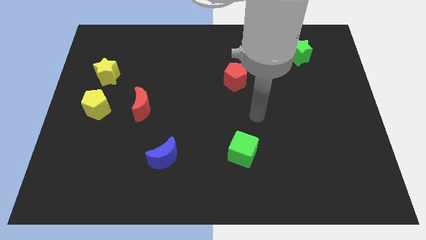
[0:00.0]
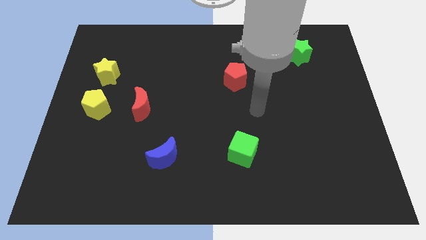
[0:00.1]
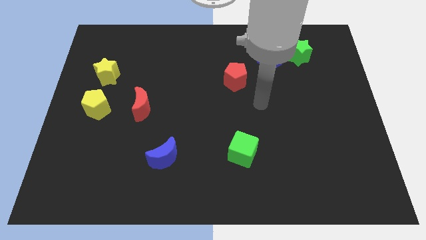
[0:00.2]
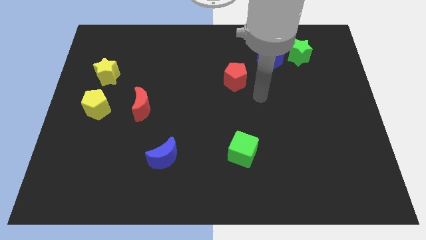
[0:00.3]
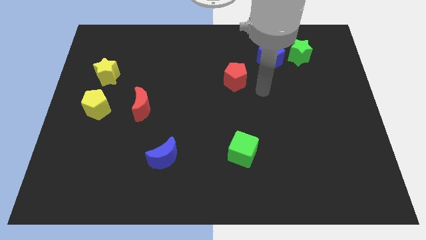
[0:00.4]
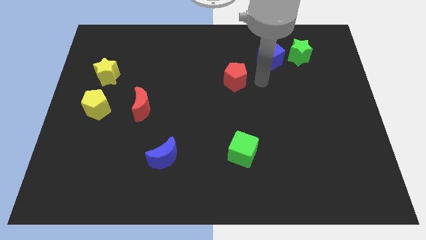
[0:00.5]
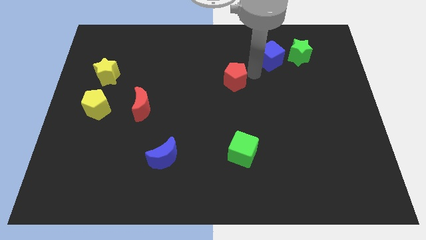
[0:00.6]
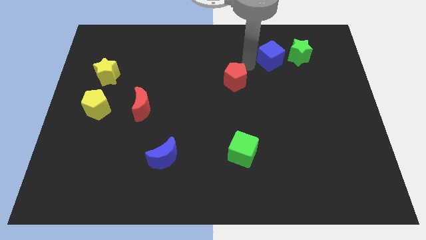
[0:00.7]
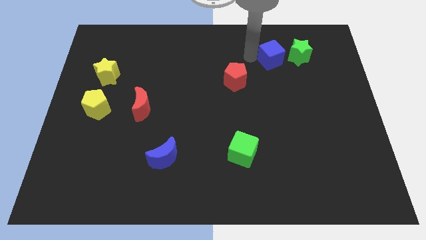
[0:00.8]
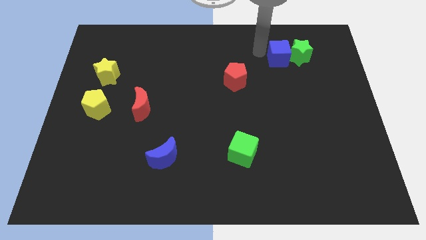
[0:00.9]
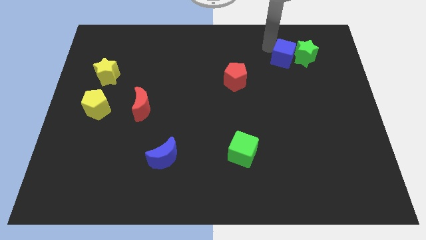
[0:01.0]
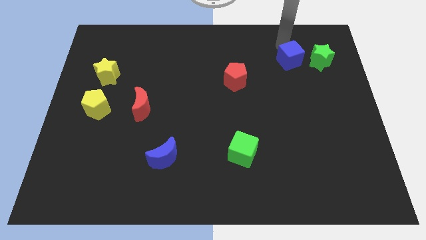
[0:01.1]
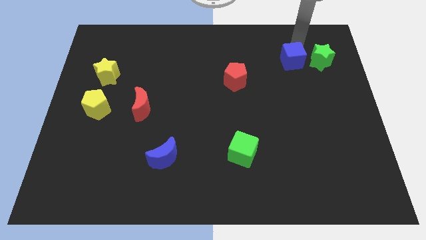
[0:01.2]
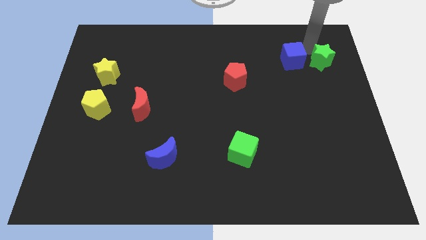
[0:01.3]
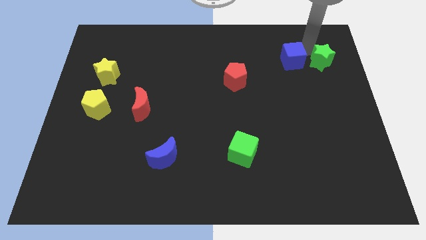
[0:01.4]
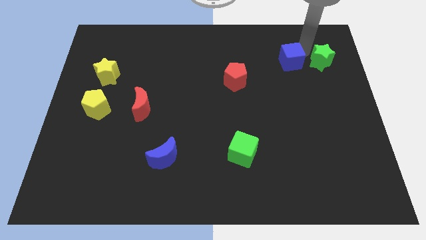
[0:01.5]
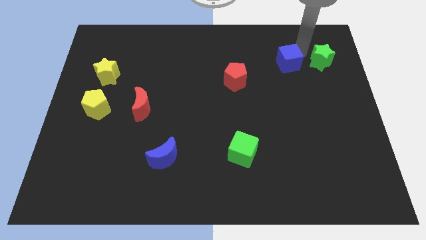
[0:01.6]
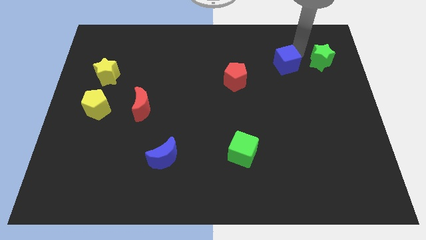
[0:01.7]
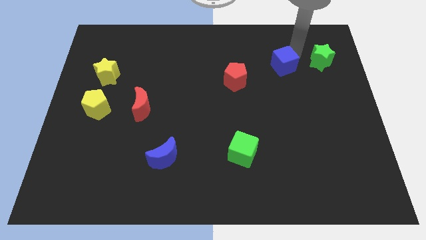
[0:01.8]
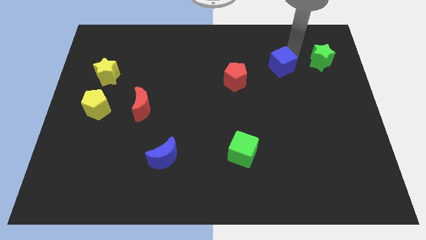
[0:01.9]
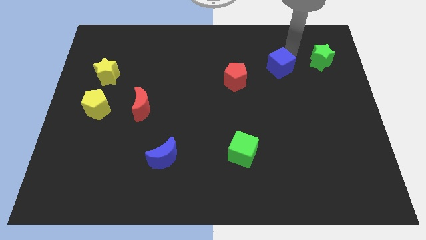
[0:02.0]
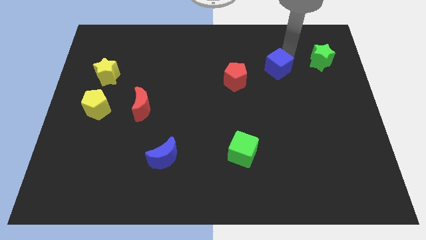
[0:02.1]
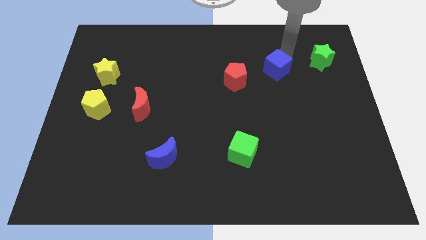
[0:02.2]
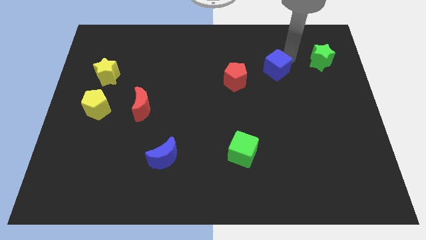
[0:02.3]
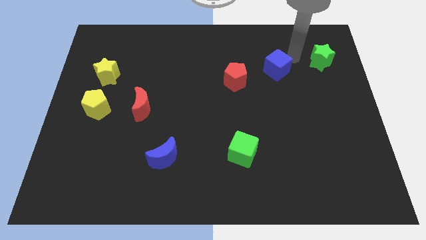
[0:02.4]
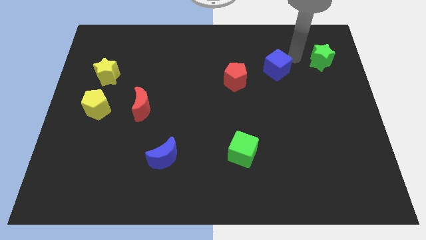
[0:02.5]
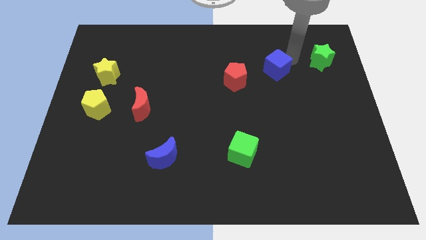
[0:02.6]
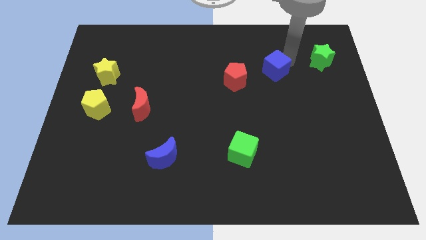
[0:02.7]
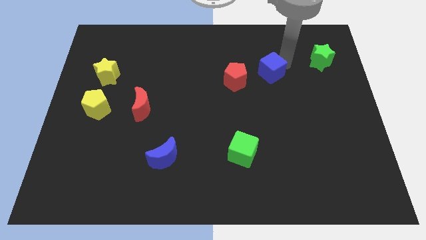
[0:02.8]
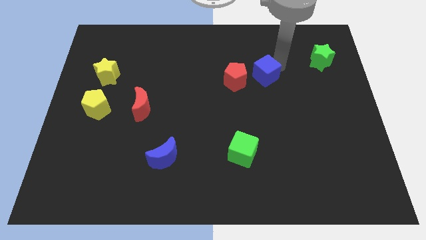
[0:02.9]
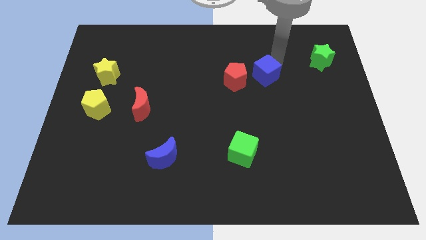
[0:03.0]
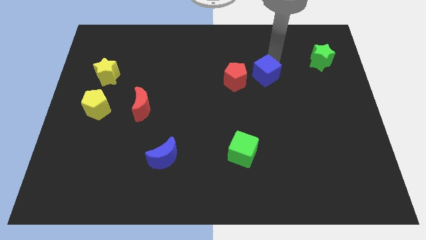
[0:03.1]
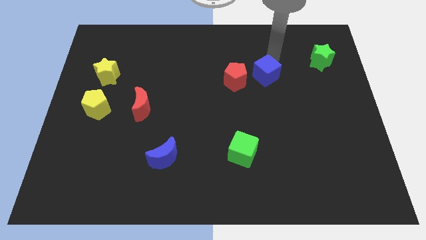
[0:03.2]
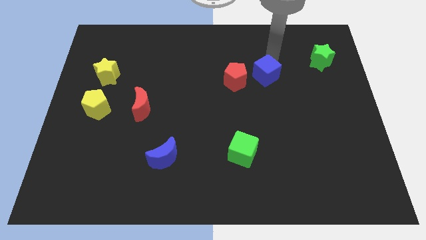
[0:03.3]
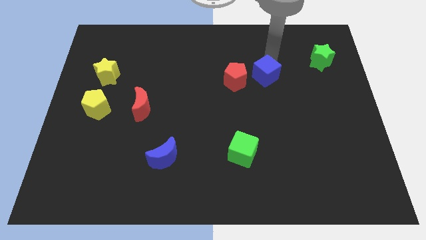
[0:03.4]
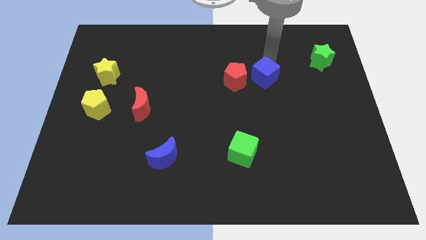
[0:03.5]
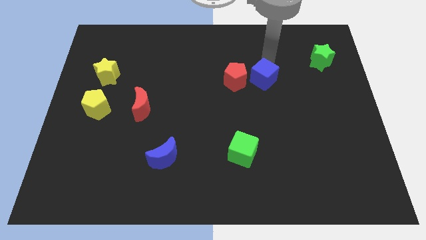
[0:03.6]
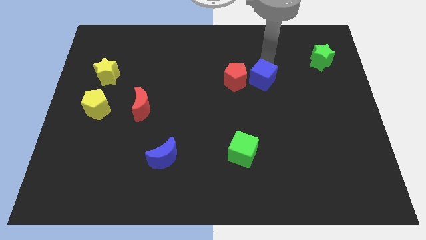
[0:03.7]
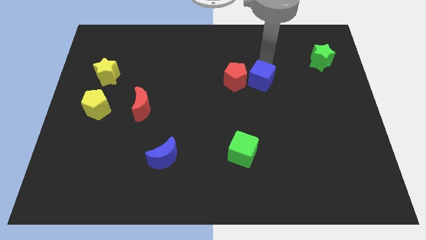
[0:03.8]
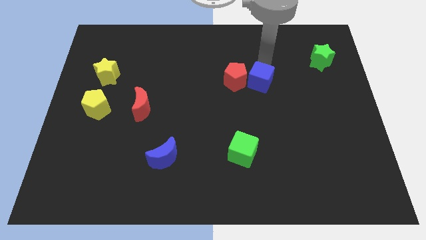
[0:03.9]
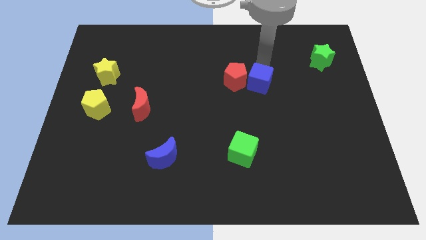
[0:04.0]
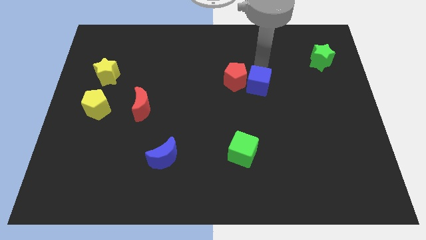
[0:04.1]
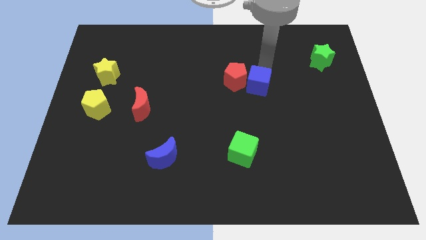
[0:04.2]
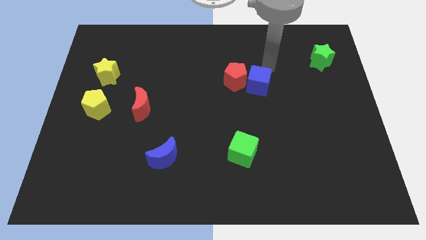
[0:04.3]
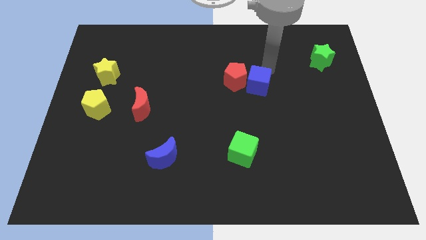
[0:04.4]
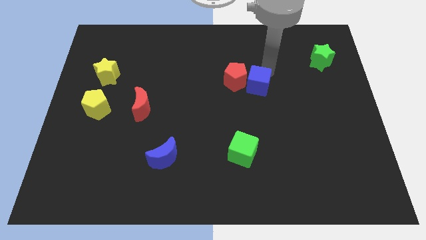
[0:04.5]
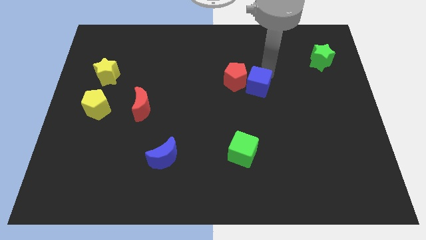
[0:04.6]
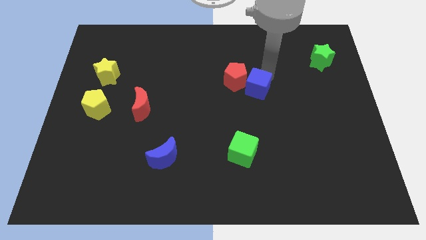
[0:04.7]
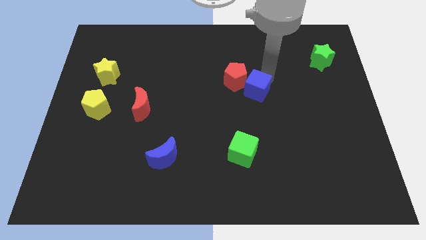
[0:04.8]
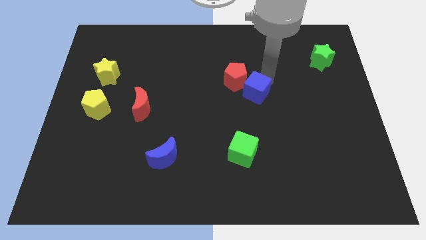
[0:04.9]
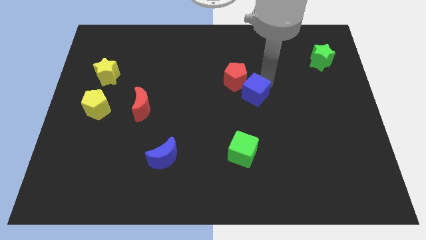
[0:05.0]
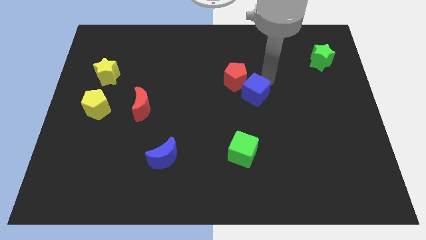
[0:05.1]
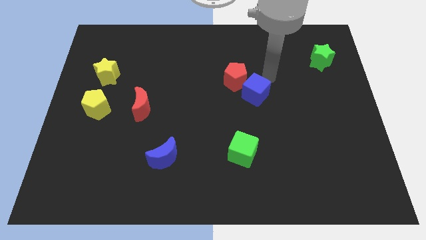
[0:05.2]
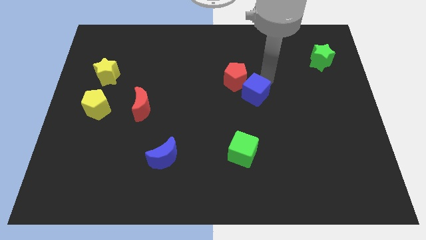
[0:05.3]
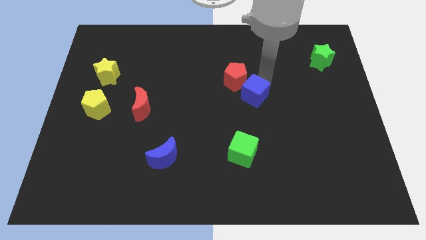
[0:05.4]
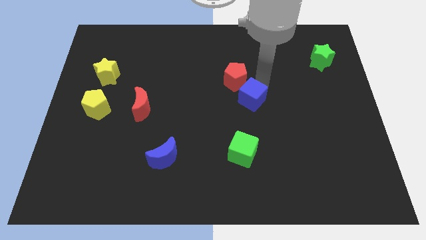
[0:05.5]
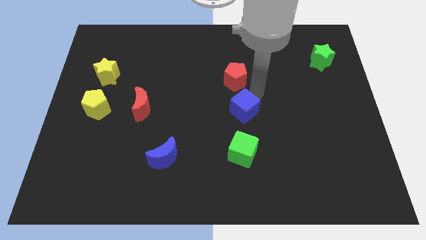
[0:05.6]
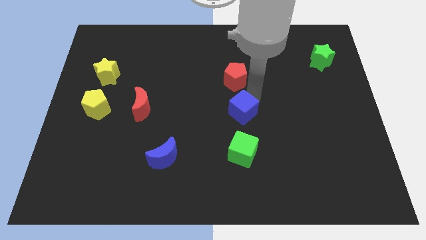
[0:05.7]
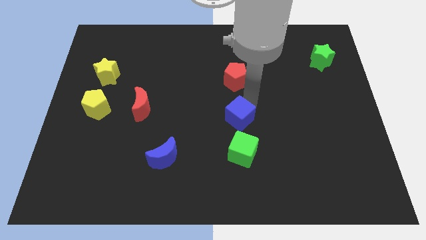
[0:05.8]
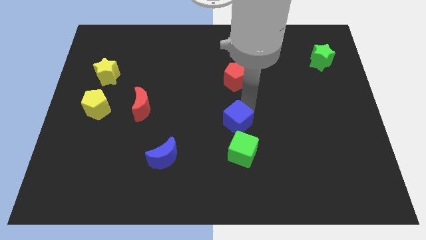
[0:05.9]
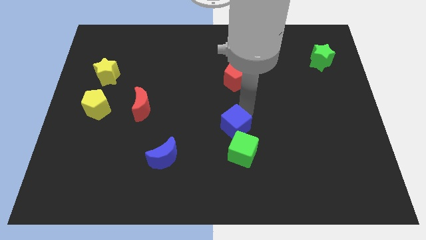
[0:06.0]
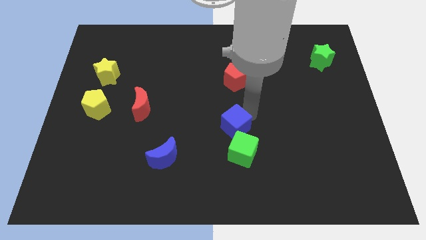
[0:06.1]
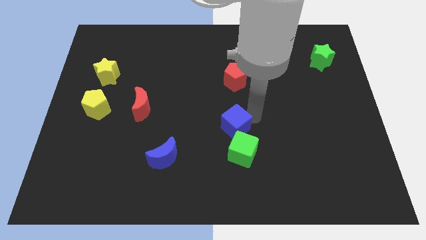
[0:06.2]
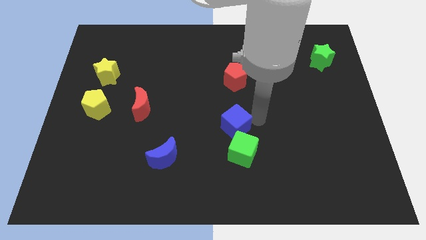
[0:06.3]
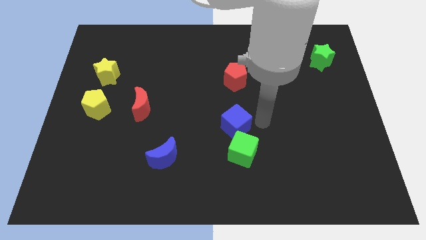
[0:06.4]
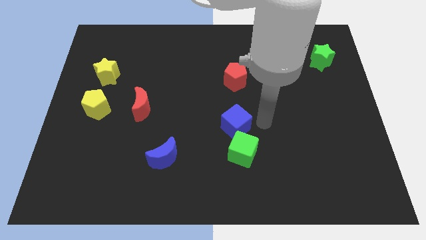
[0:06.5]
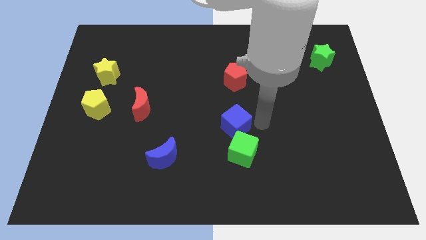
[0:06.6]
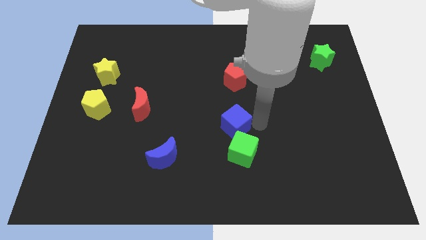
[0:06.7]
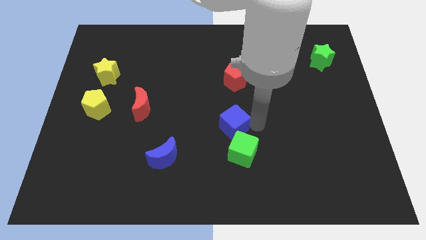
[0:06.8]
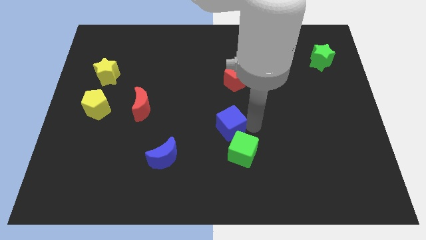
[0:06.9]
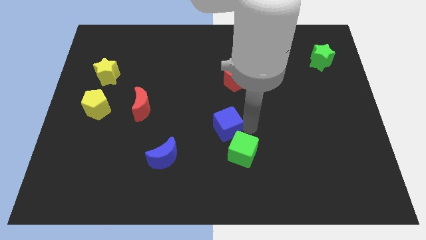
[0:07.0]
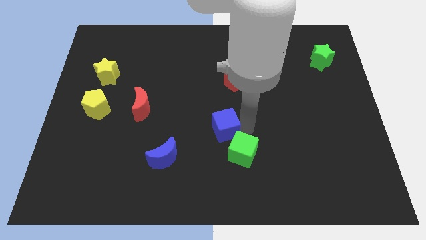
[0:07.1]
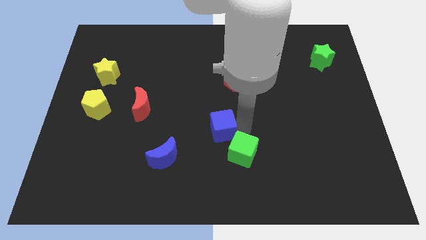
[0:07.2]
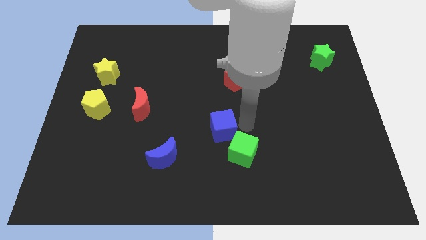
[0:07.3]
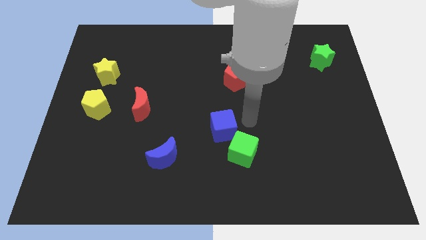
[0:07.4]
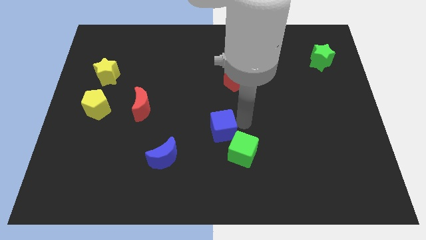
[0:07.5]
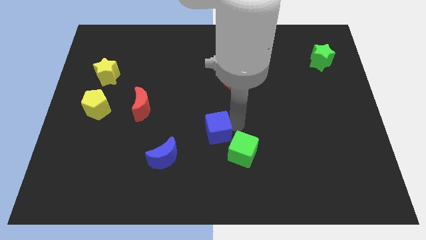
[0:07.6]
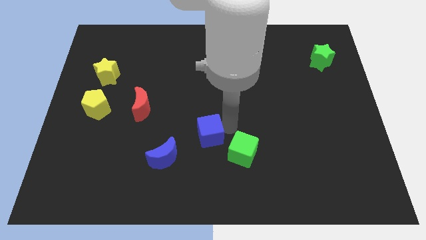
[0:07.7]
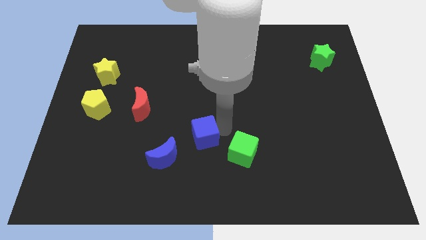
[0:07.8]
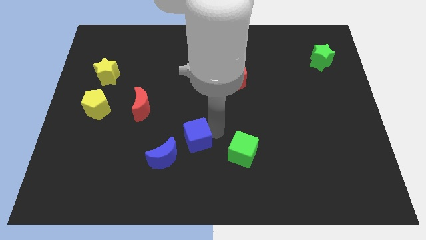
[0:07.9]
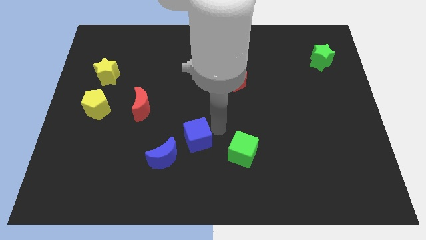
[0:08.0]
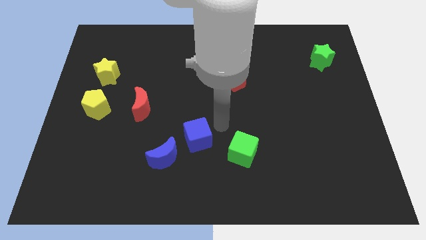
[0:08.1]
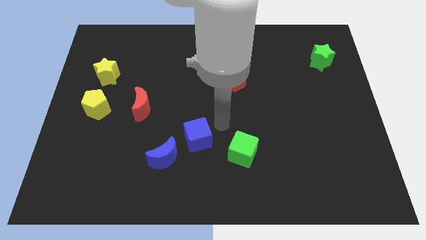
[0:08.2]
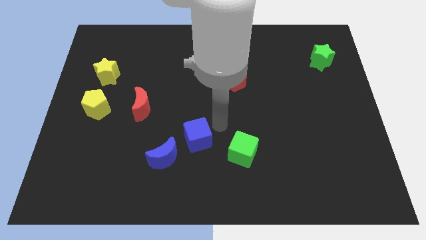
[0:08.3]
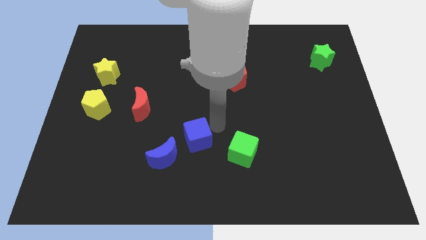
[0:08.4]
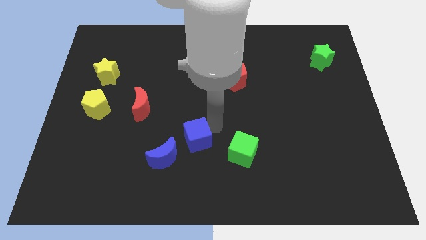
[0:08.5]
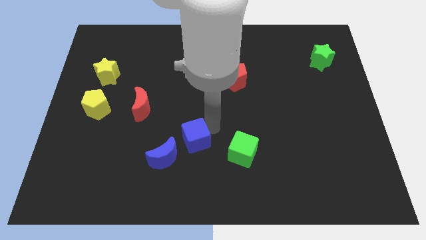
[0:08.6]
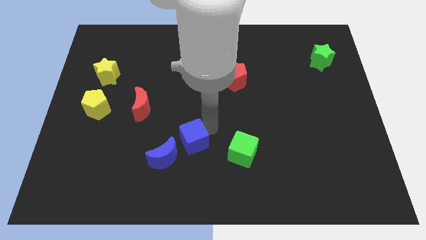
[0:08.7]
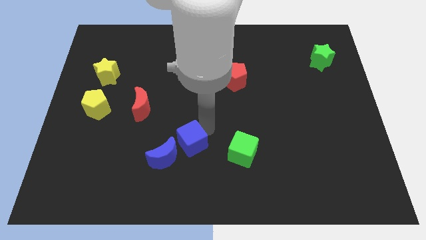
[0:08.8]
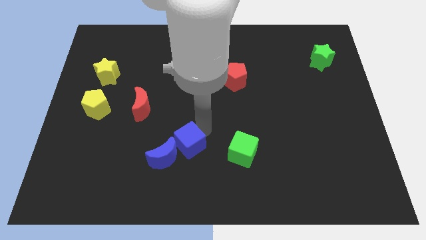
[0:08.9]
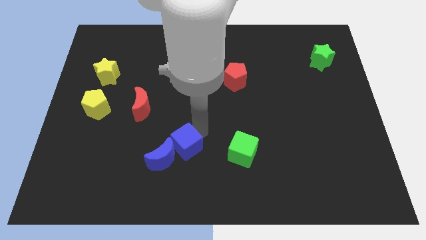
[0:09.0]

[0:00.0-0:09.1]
slide the blue cube to the blue moon
